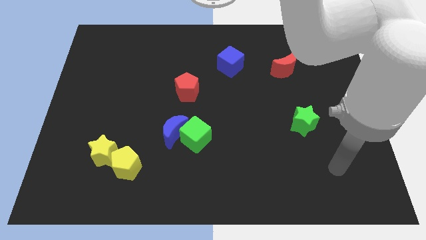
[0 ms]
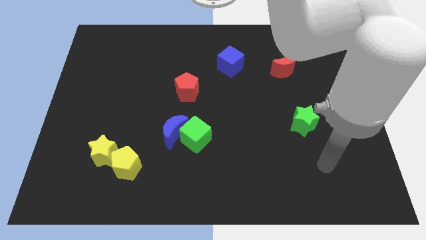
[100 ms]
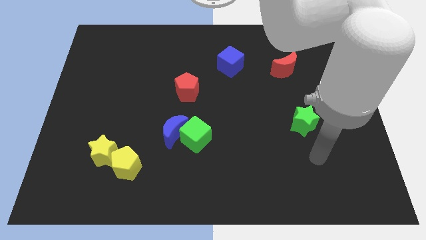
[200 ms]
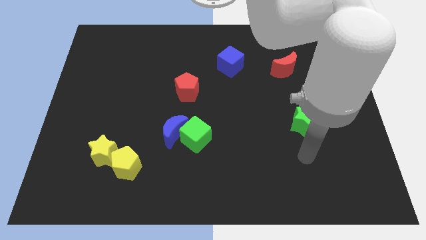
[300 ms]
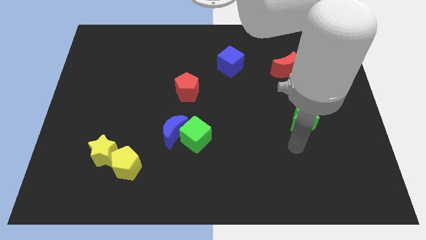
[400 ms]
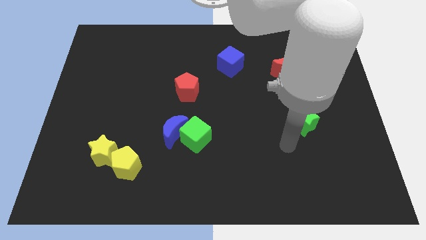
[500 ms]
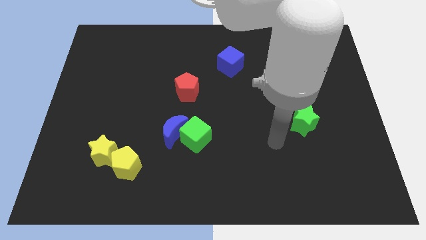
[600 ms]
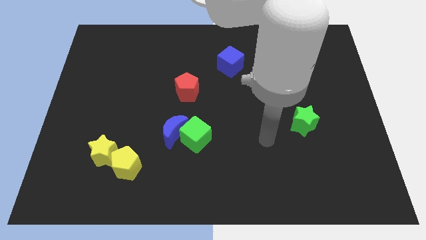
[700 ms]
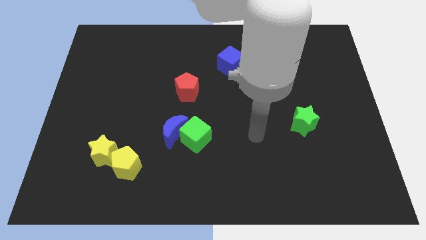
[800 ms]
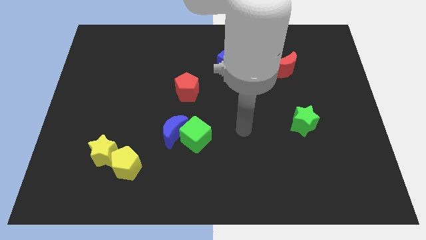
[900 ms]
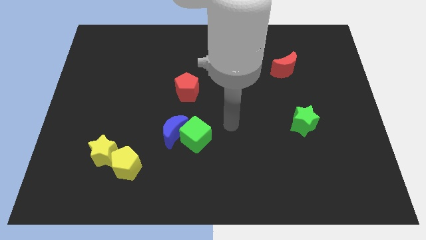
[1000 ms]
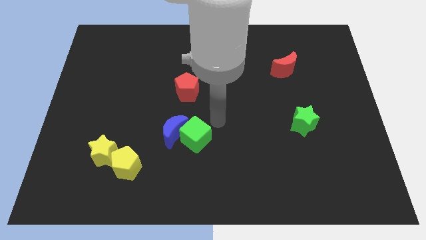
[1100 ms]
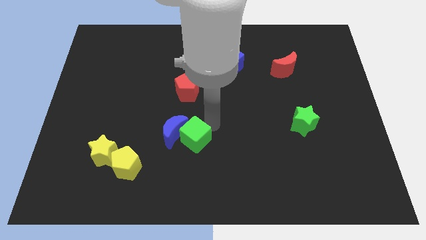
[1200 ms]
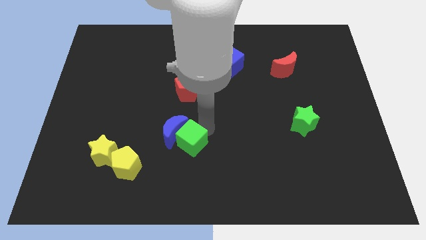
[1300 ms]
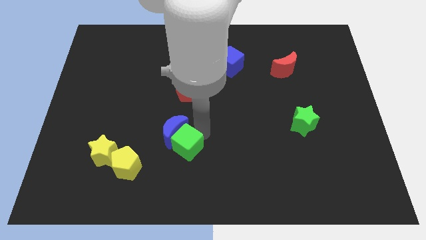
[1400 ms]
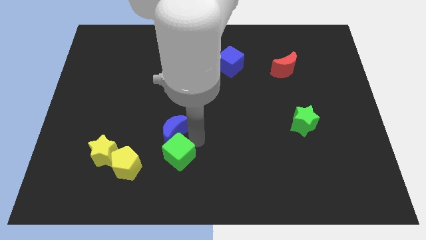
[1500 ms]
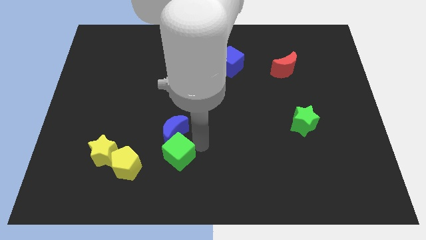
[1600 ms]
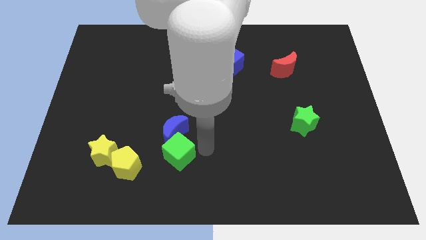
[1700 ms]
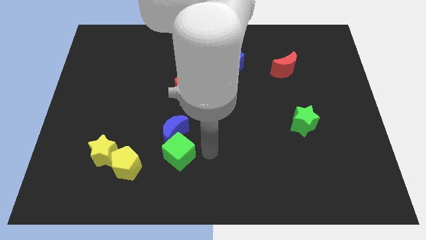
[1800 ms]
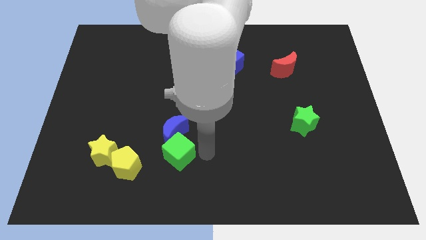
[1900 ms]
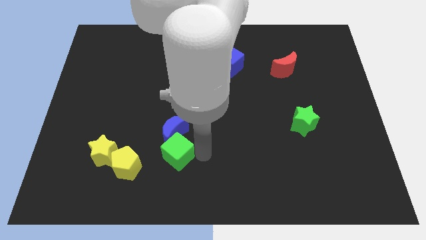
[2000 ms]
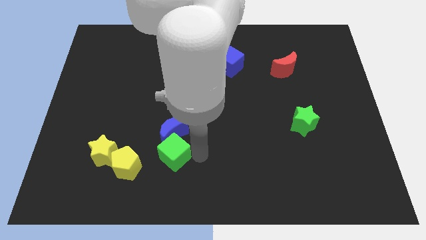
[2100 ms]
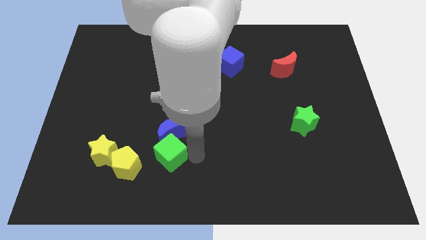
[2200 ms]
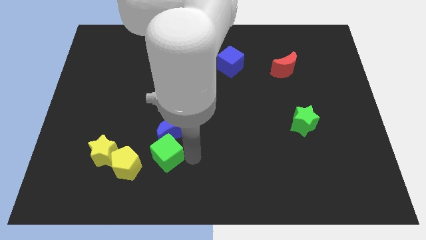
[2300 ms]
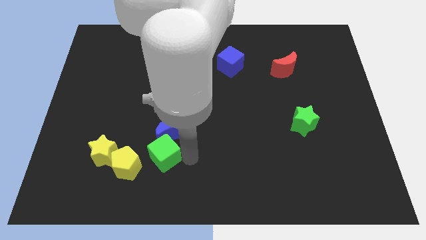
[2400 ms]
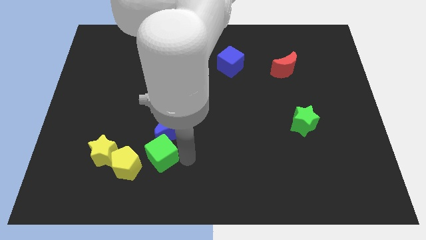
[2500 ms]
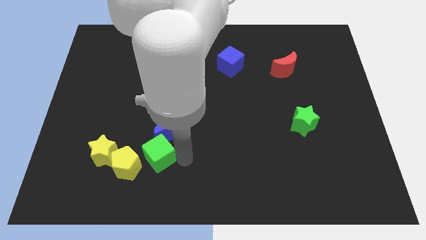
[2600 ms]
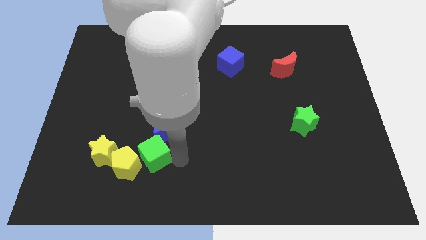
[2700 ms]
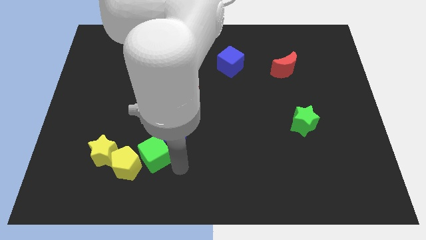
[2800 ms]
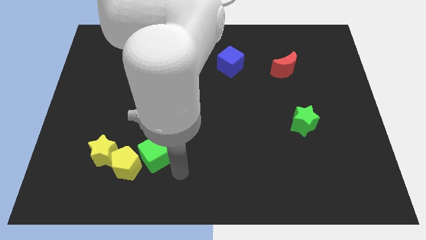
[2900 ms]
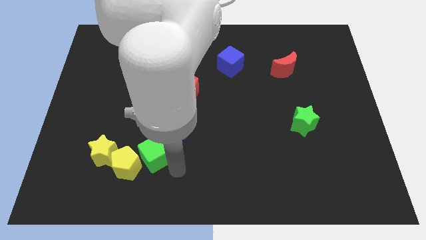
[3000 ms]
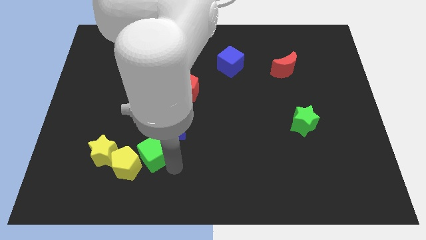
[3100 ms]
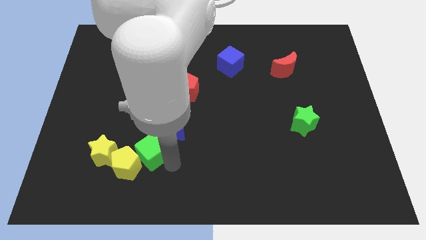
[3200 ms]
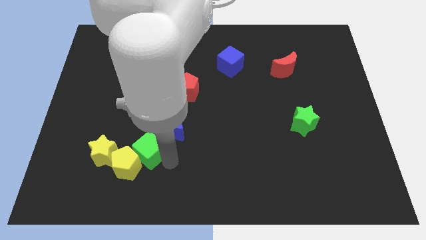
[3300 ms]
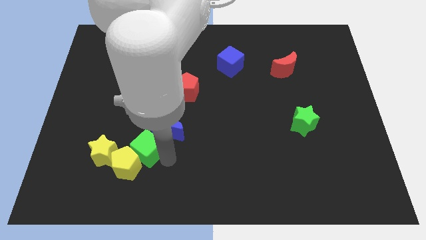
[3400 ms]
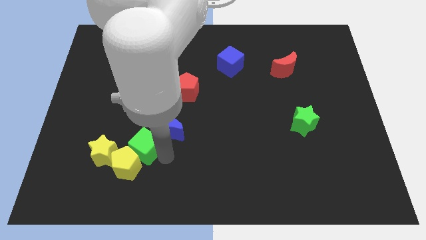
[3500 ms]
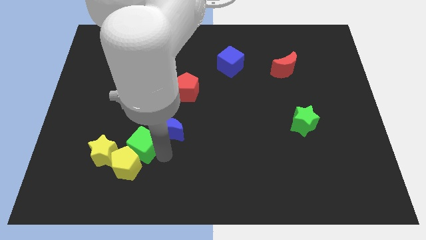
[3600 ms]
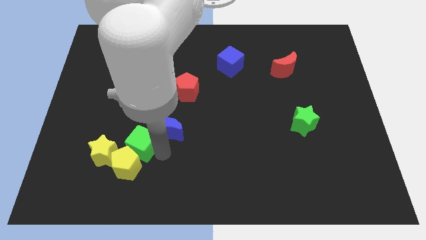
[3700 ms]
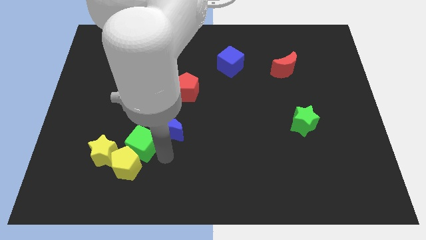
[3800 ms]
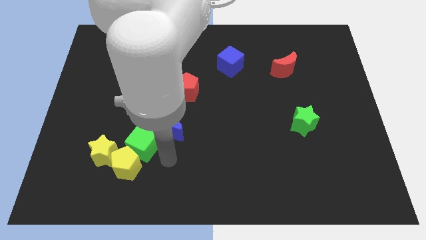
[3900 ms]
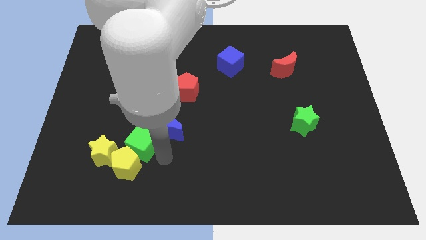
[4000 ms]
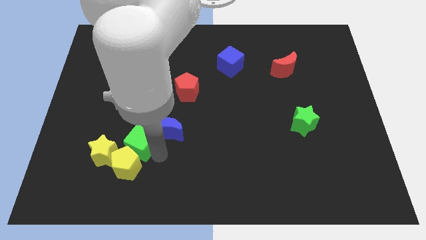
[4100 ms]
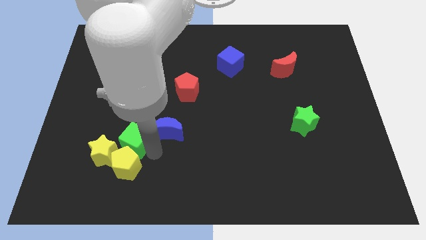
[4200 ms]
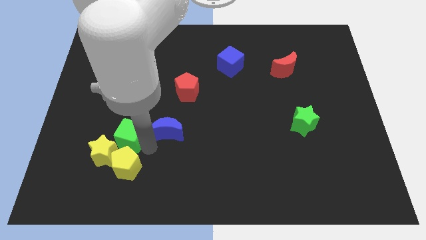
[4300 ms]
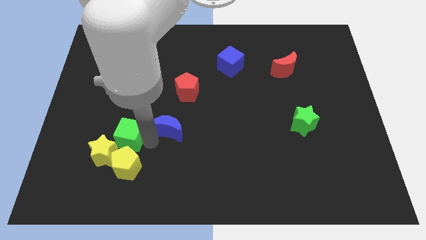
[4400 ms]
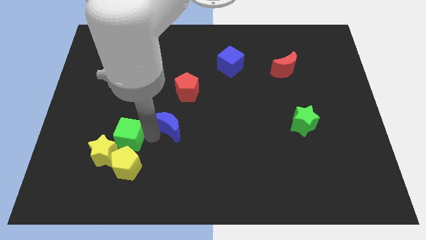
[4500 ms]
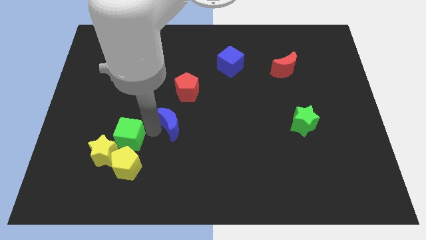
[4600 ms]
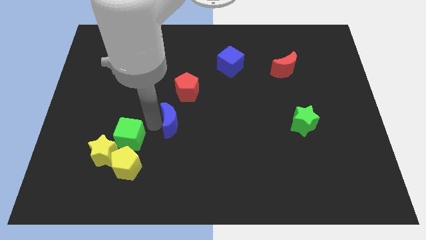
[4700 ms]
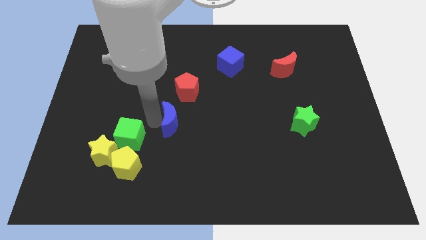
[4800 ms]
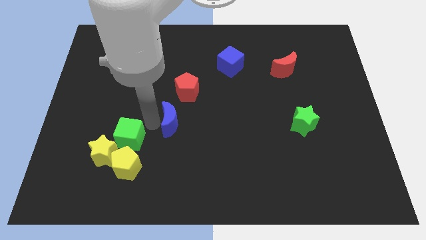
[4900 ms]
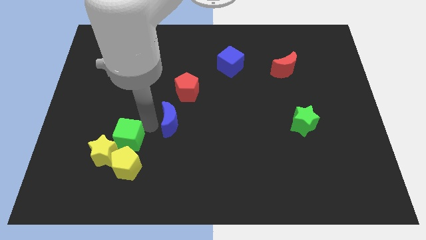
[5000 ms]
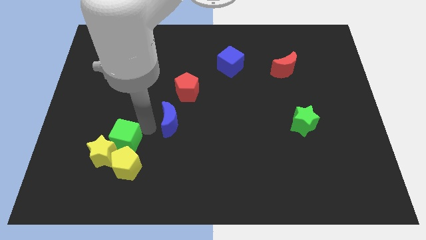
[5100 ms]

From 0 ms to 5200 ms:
slide the green cube towards the yellow star

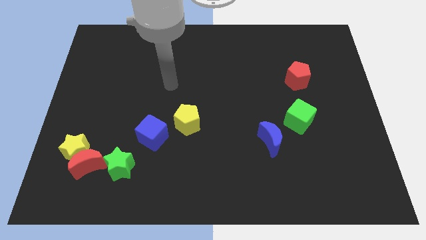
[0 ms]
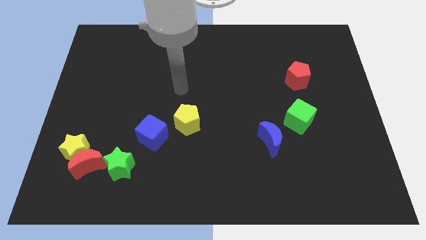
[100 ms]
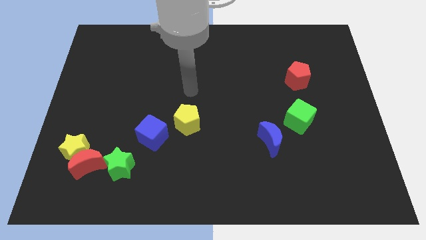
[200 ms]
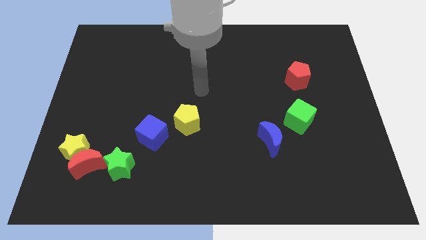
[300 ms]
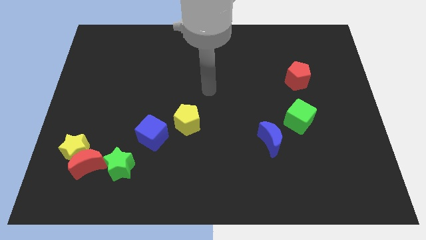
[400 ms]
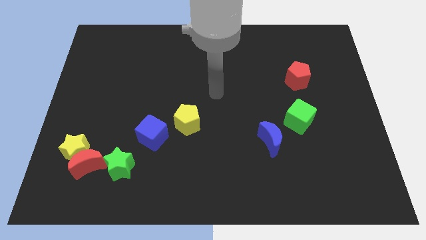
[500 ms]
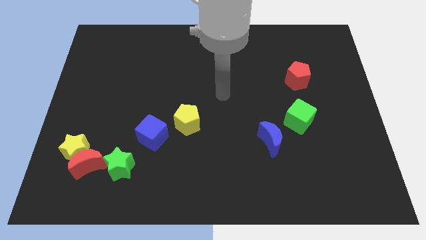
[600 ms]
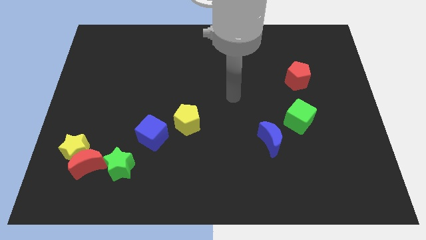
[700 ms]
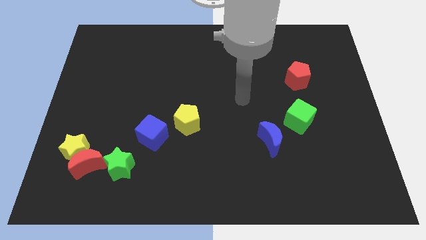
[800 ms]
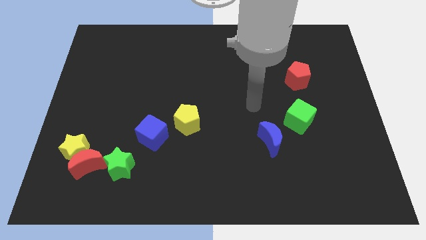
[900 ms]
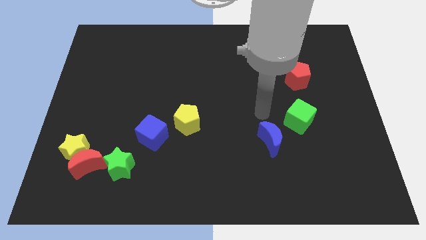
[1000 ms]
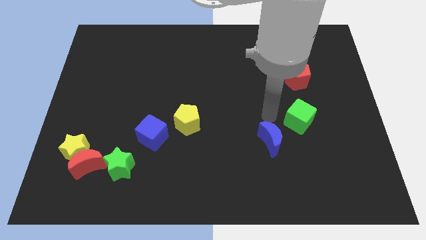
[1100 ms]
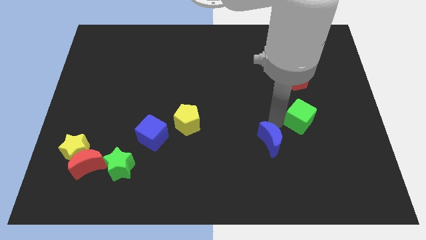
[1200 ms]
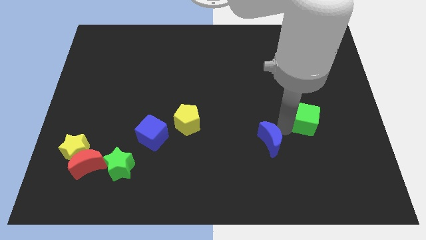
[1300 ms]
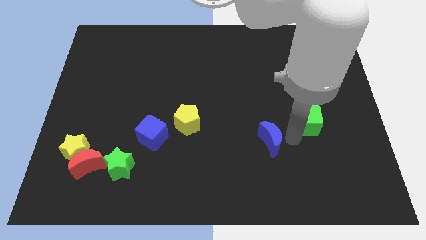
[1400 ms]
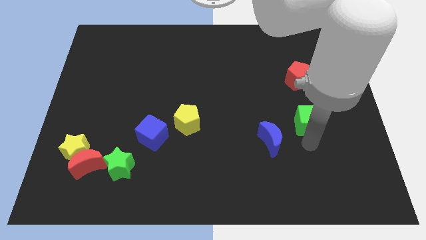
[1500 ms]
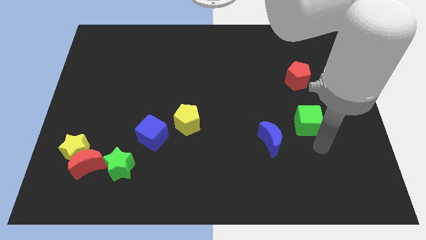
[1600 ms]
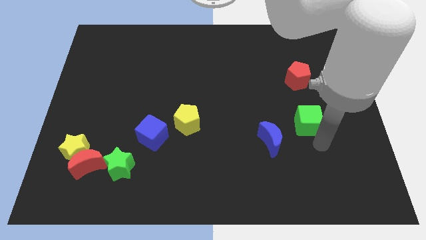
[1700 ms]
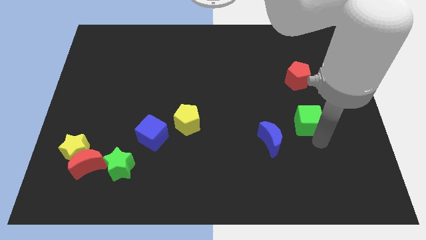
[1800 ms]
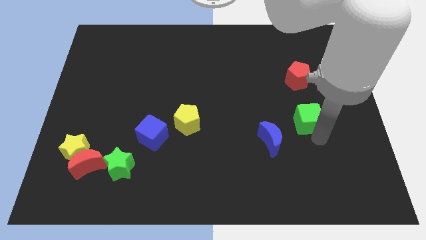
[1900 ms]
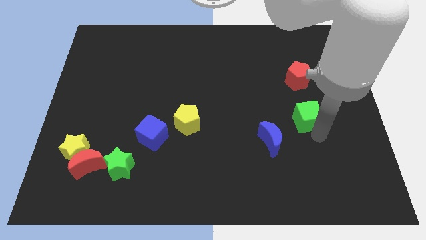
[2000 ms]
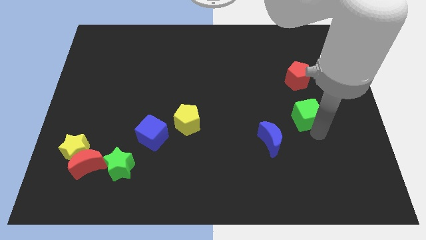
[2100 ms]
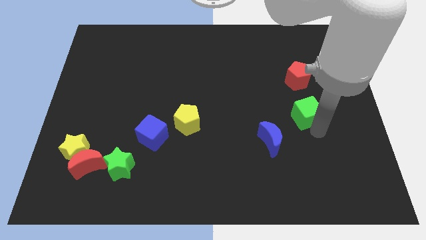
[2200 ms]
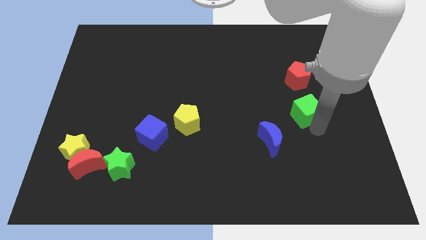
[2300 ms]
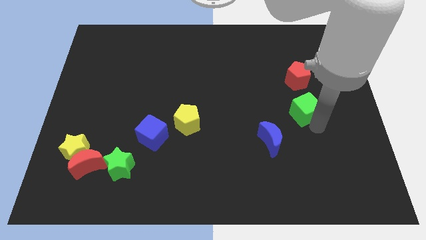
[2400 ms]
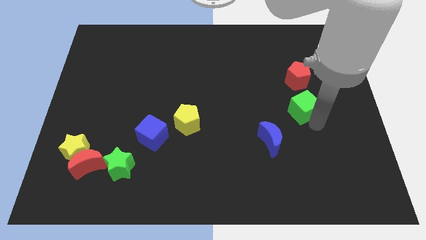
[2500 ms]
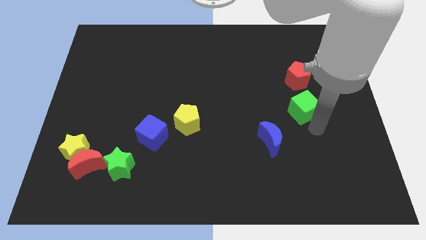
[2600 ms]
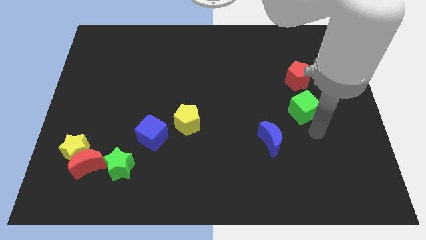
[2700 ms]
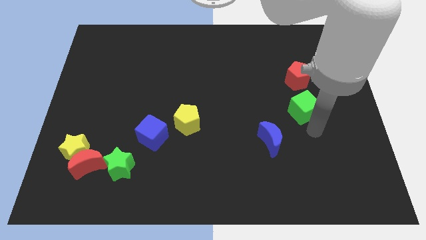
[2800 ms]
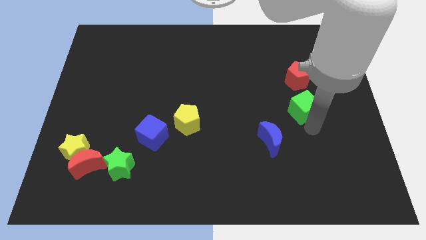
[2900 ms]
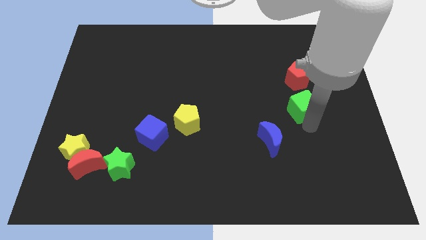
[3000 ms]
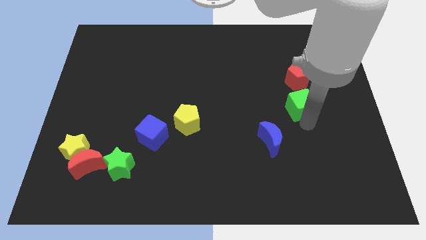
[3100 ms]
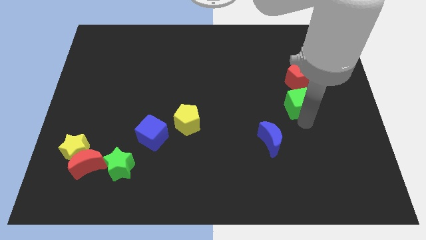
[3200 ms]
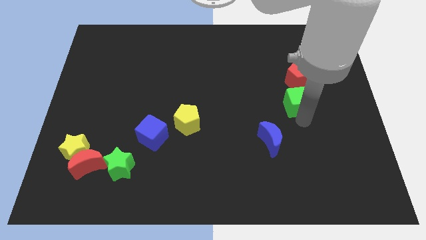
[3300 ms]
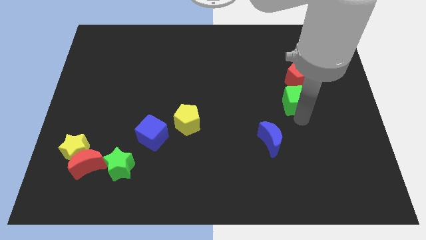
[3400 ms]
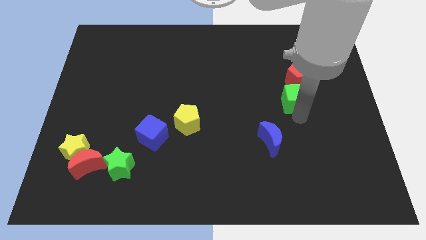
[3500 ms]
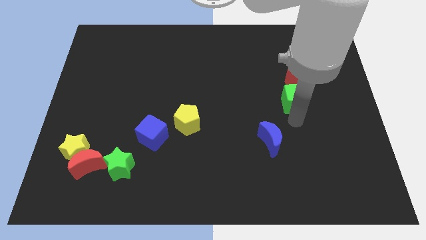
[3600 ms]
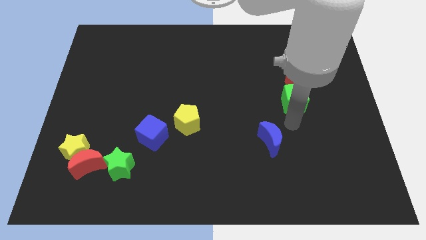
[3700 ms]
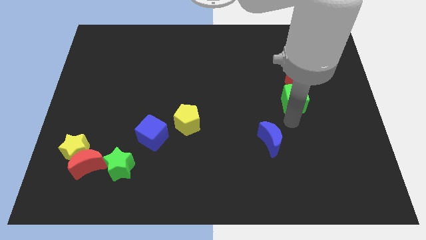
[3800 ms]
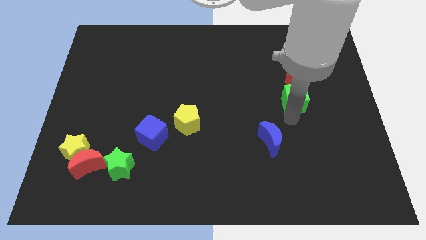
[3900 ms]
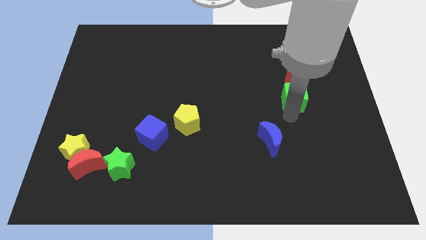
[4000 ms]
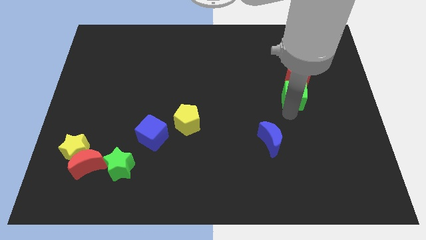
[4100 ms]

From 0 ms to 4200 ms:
move the green cube towards the red pentagon
